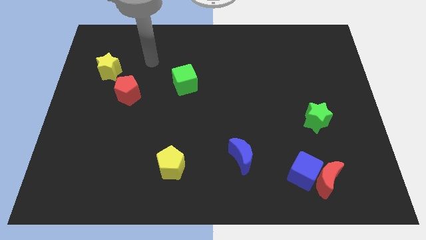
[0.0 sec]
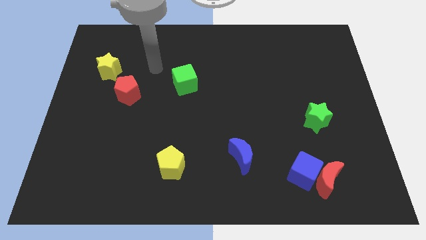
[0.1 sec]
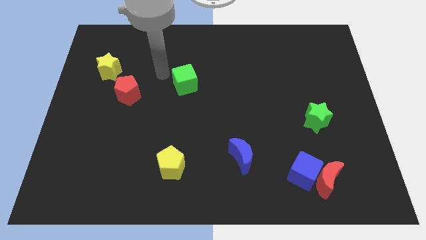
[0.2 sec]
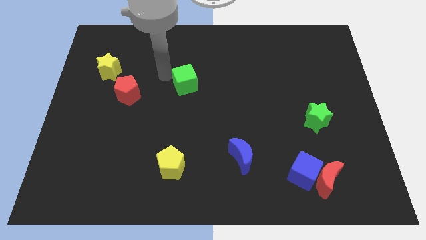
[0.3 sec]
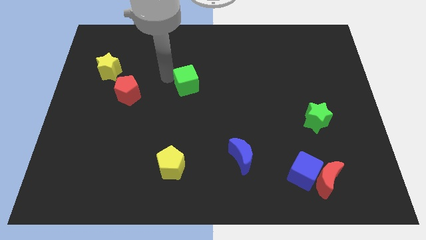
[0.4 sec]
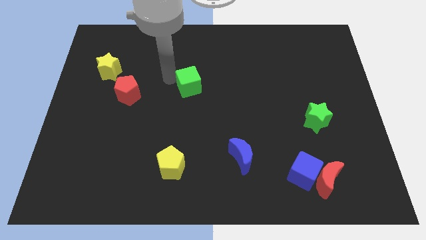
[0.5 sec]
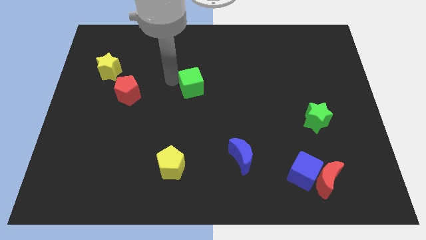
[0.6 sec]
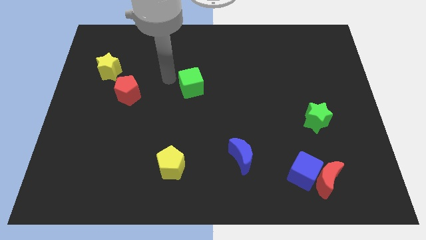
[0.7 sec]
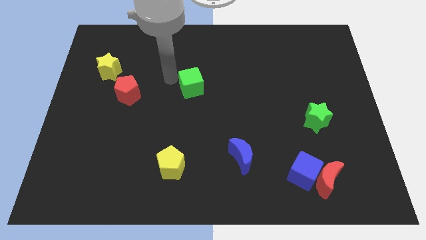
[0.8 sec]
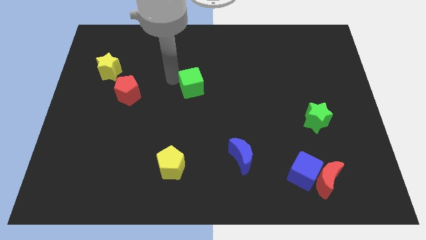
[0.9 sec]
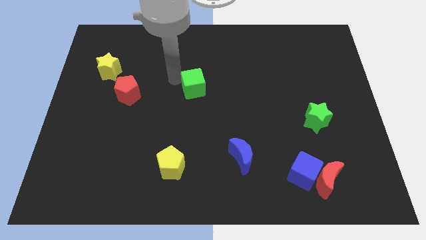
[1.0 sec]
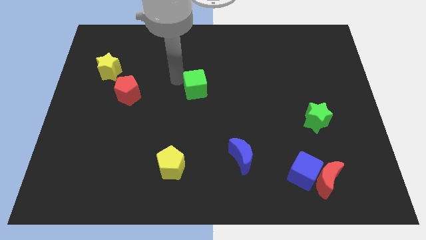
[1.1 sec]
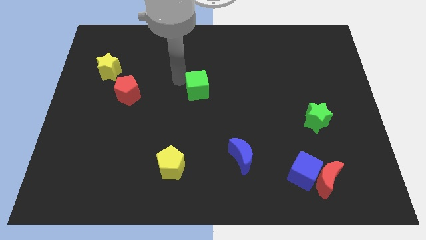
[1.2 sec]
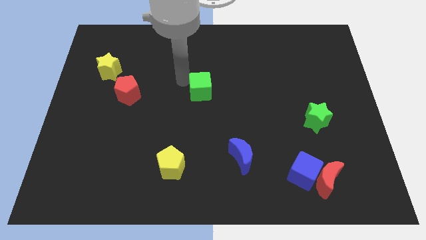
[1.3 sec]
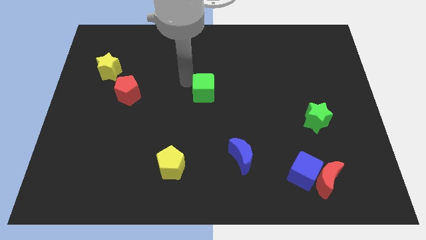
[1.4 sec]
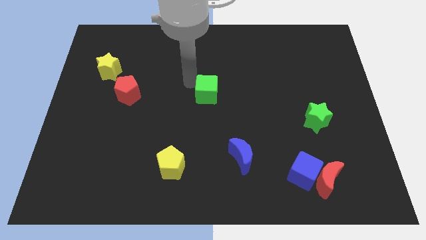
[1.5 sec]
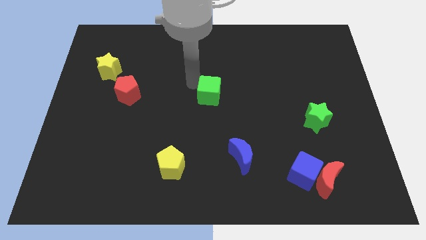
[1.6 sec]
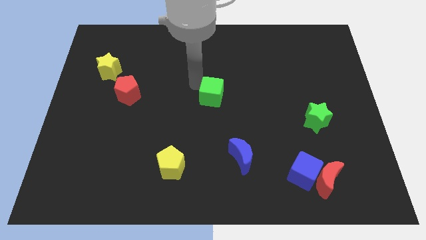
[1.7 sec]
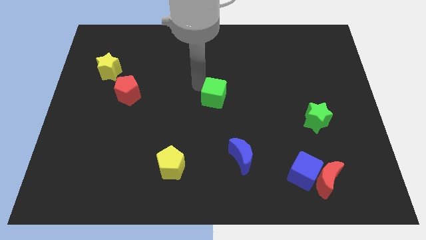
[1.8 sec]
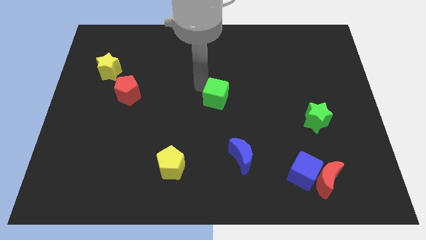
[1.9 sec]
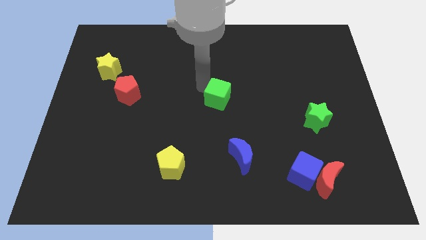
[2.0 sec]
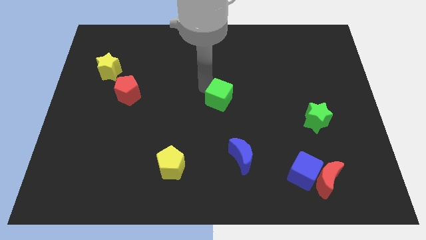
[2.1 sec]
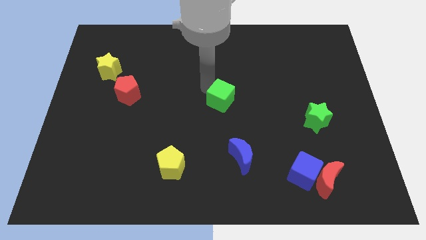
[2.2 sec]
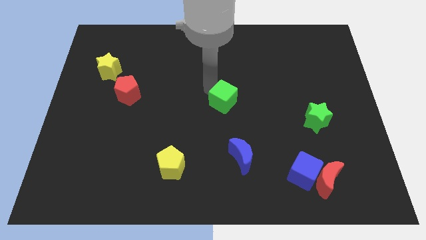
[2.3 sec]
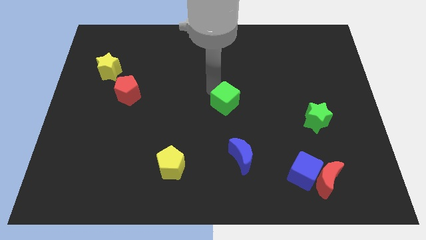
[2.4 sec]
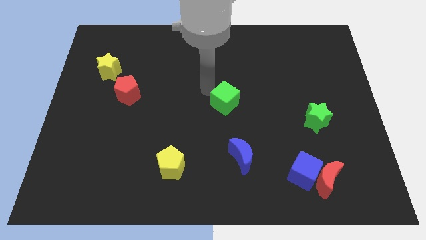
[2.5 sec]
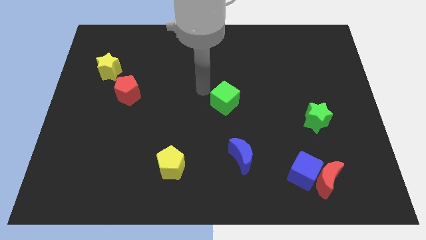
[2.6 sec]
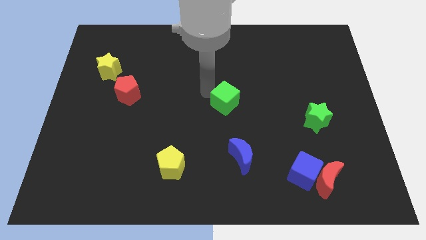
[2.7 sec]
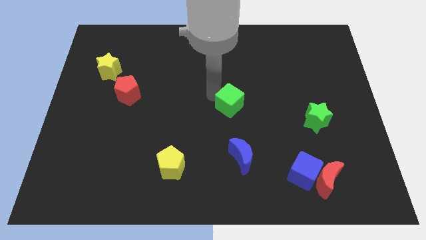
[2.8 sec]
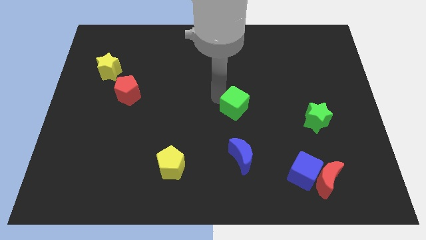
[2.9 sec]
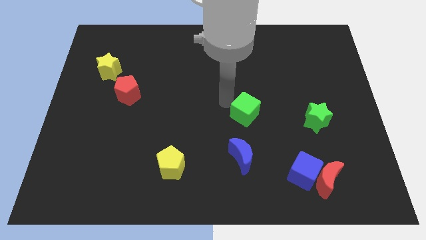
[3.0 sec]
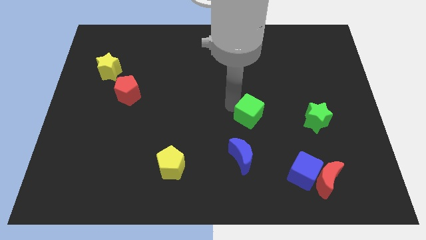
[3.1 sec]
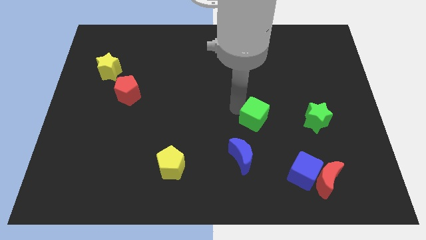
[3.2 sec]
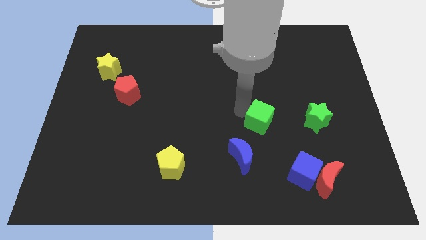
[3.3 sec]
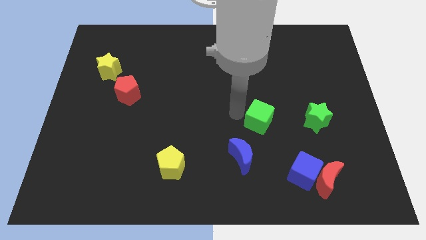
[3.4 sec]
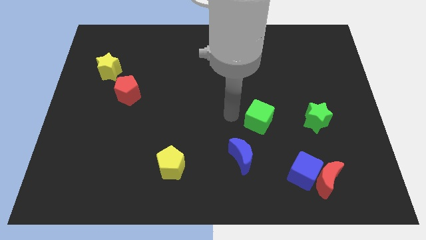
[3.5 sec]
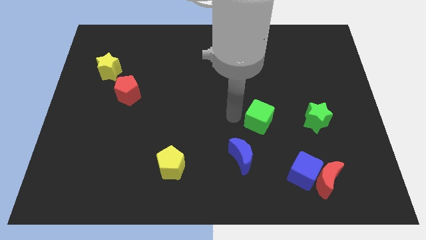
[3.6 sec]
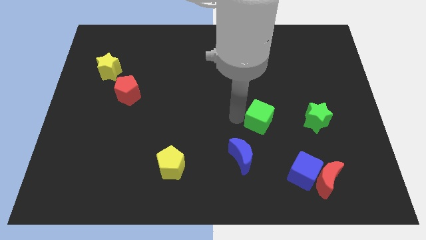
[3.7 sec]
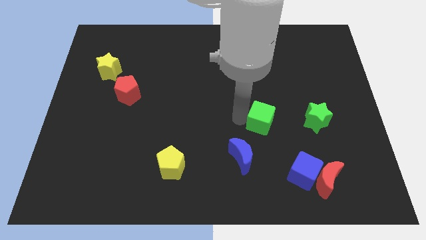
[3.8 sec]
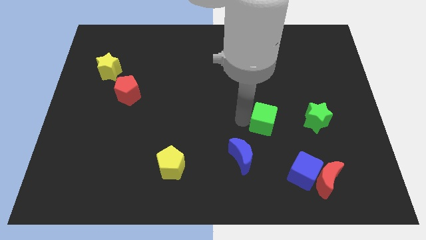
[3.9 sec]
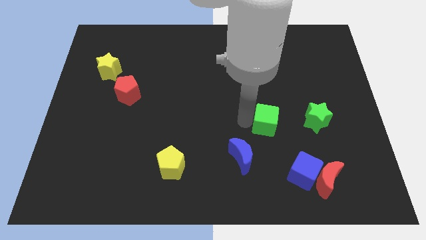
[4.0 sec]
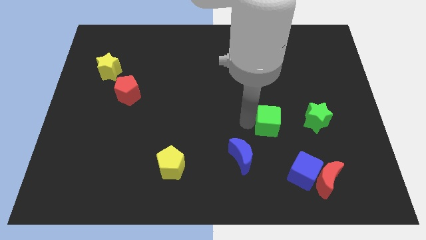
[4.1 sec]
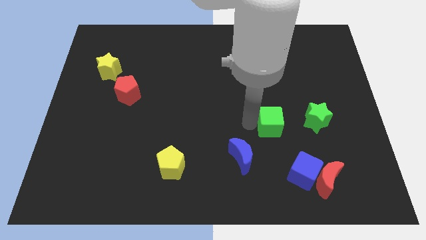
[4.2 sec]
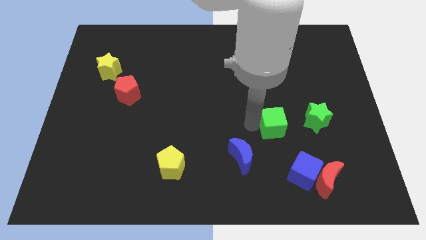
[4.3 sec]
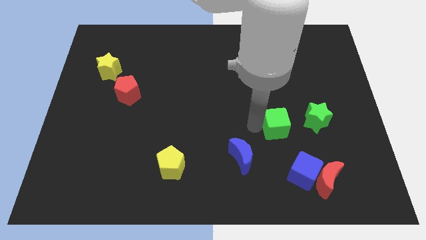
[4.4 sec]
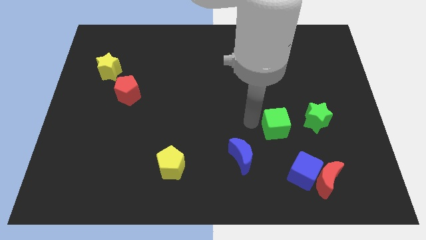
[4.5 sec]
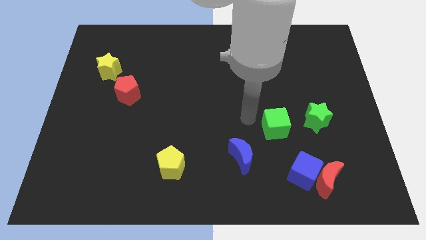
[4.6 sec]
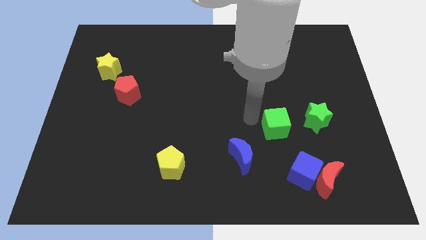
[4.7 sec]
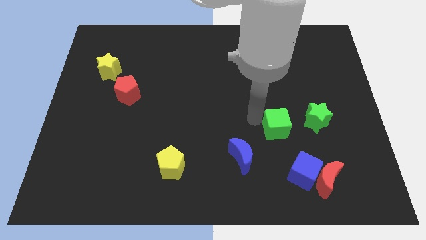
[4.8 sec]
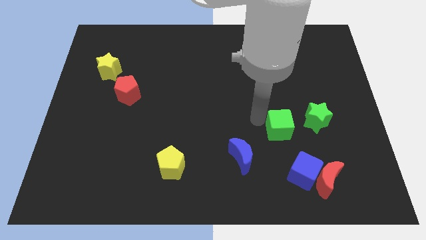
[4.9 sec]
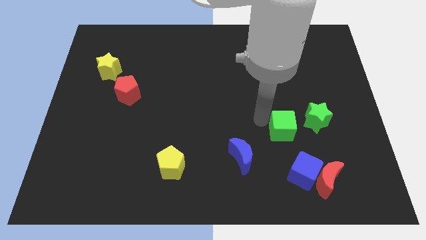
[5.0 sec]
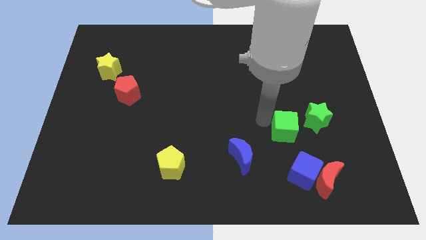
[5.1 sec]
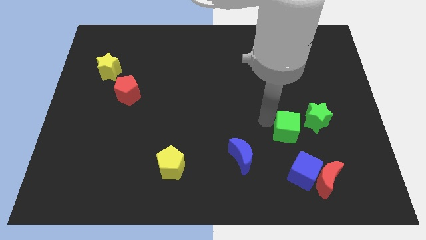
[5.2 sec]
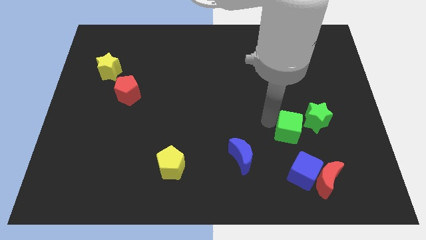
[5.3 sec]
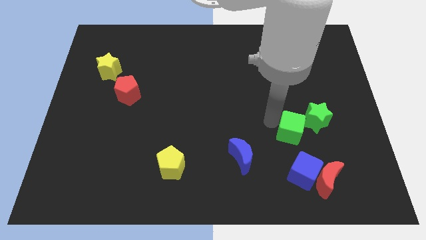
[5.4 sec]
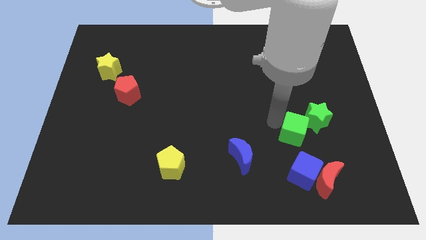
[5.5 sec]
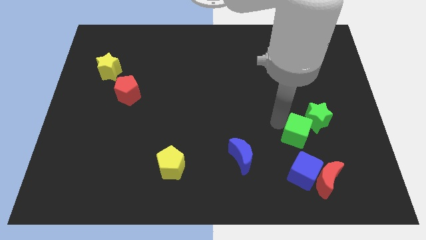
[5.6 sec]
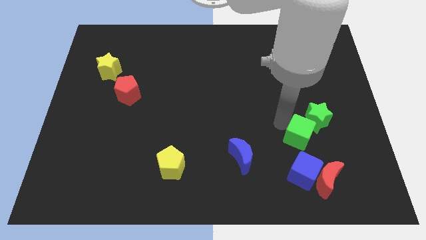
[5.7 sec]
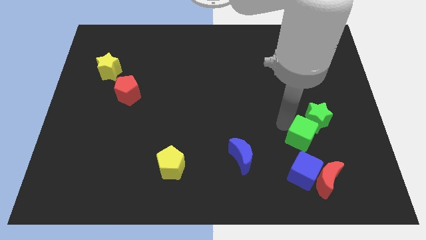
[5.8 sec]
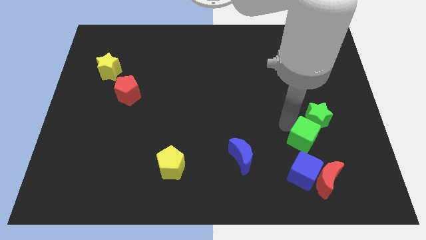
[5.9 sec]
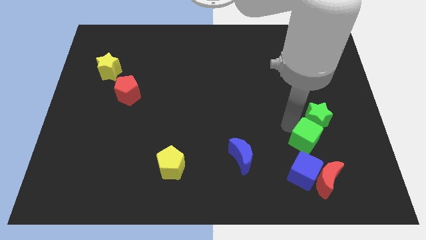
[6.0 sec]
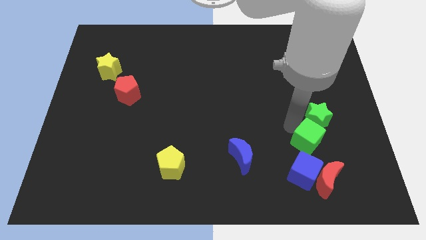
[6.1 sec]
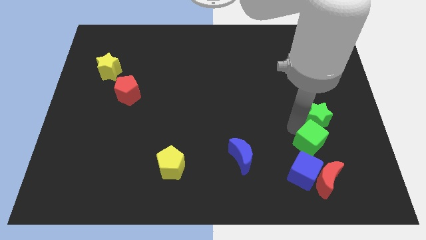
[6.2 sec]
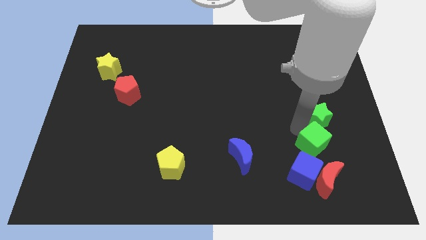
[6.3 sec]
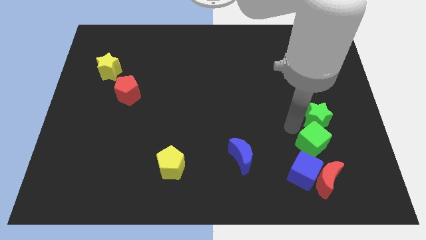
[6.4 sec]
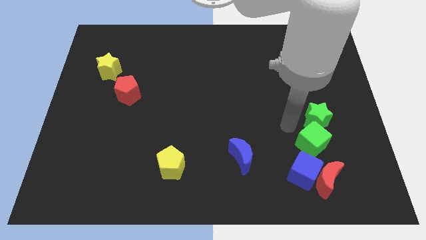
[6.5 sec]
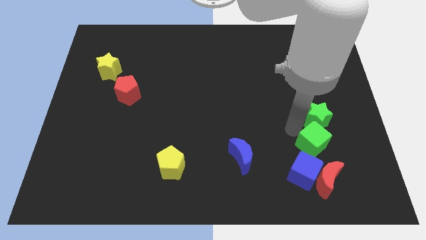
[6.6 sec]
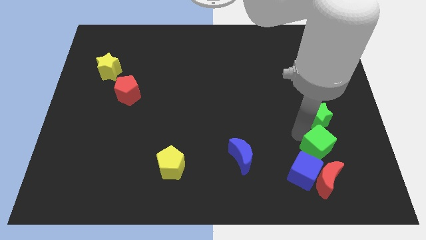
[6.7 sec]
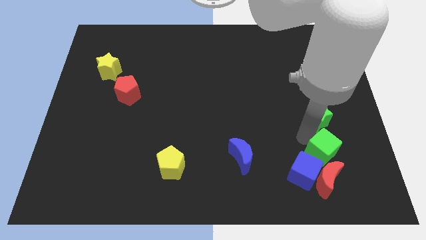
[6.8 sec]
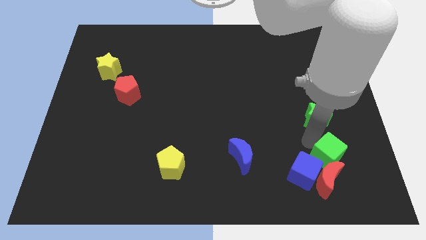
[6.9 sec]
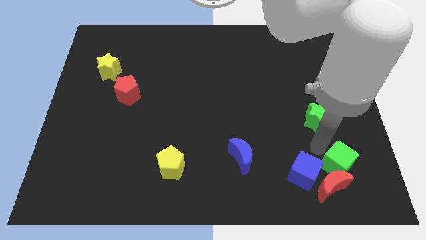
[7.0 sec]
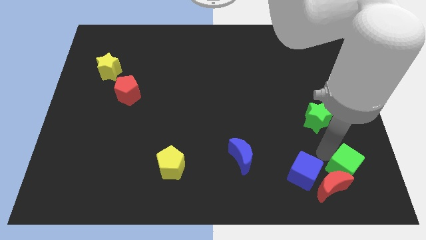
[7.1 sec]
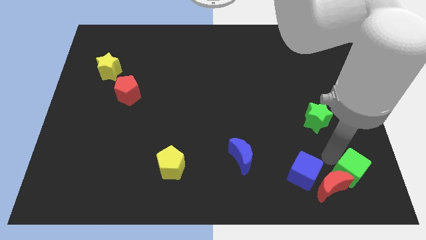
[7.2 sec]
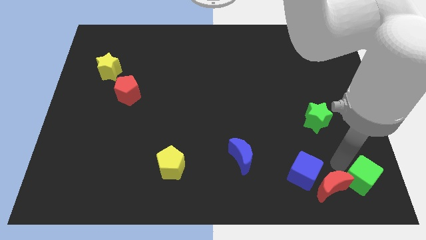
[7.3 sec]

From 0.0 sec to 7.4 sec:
put the green cube to the bottom right
